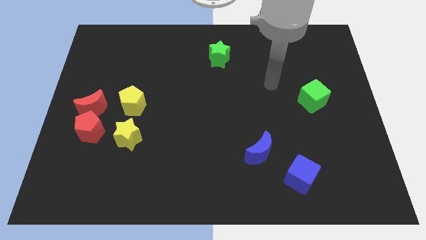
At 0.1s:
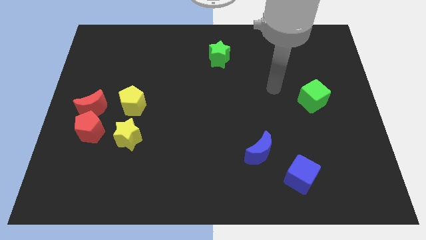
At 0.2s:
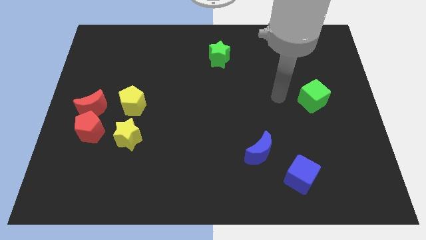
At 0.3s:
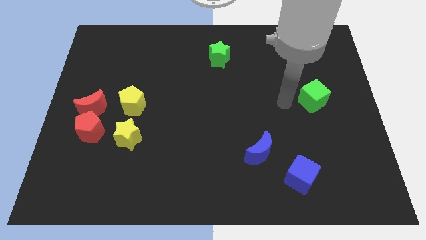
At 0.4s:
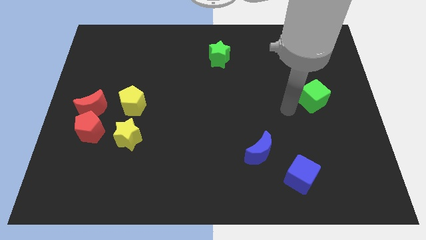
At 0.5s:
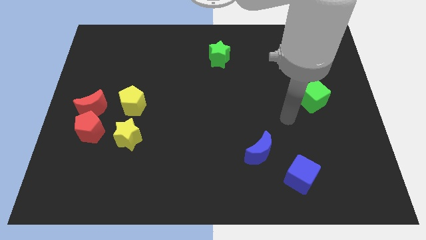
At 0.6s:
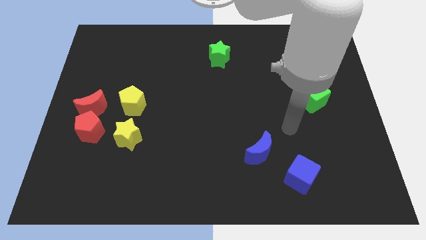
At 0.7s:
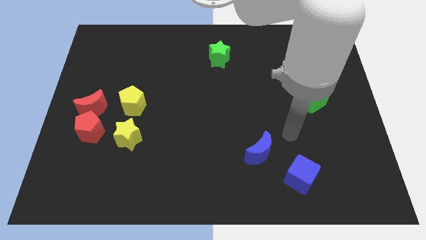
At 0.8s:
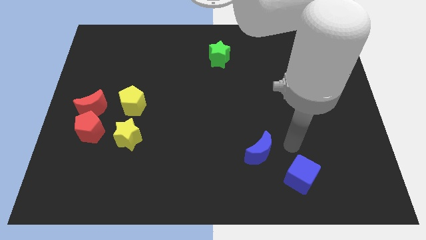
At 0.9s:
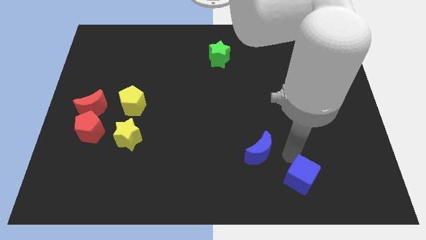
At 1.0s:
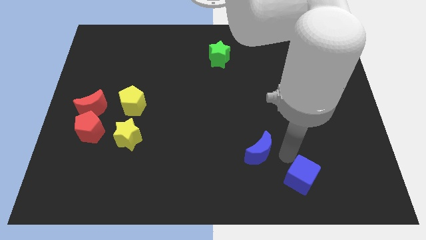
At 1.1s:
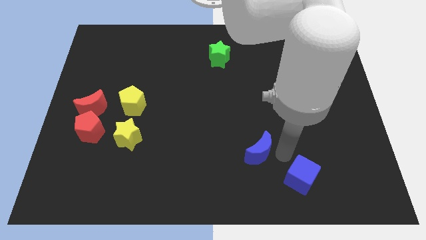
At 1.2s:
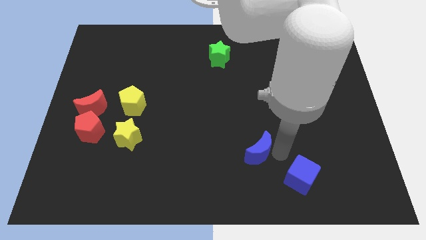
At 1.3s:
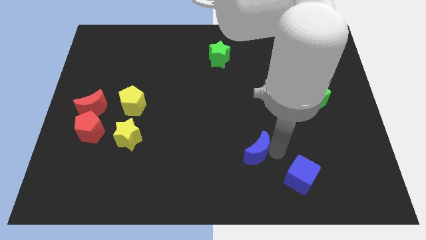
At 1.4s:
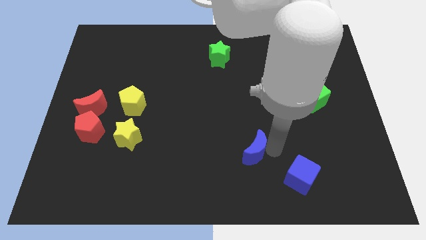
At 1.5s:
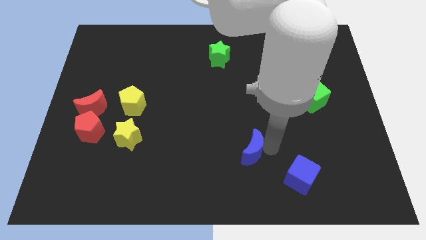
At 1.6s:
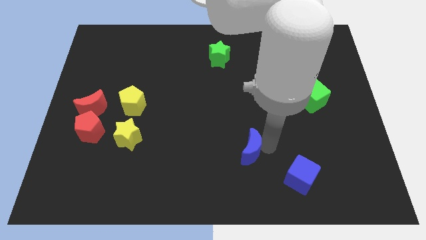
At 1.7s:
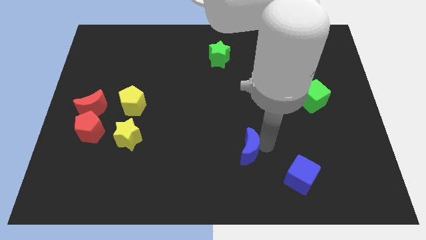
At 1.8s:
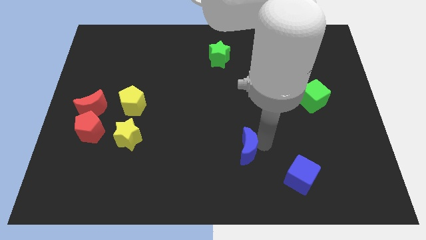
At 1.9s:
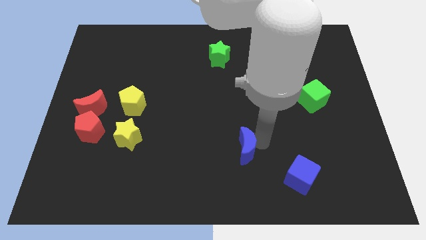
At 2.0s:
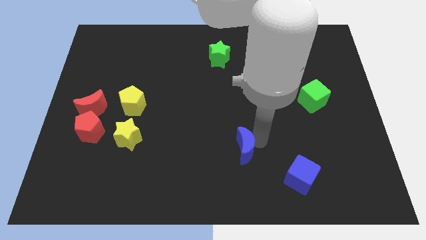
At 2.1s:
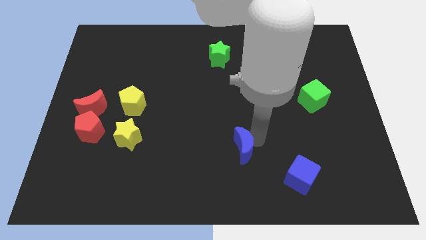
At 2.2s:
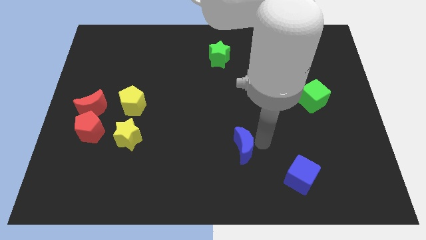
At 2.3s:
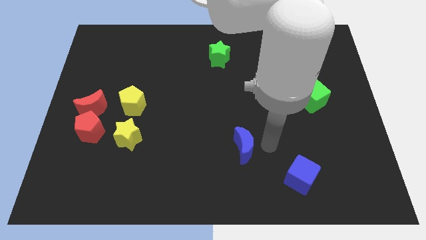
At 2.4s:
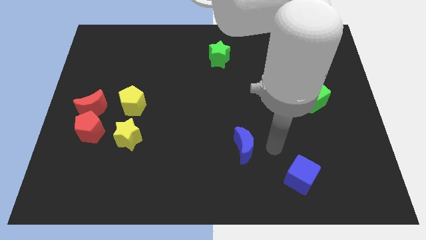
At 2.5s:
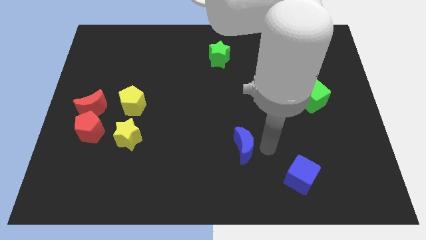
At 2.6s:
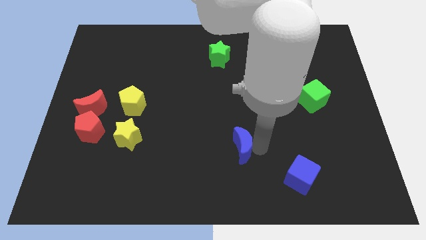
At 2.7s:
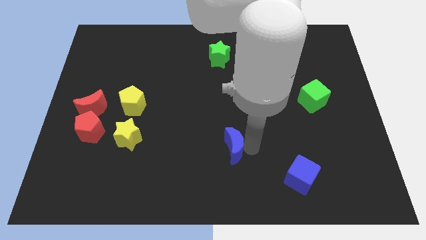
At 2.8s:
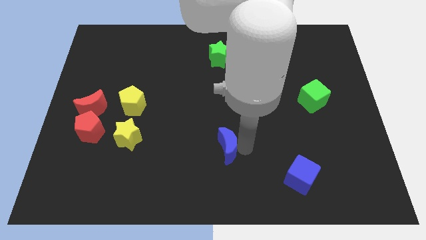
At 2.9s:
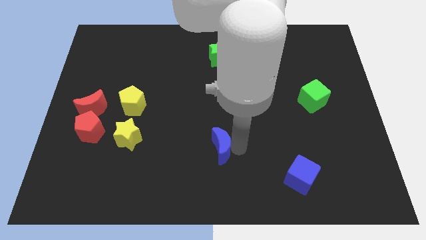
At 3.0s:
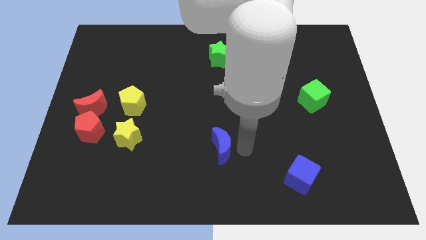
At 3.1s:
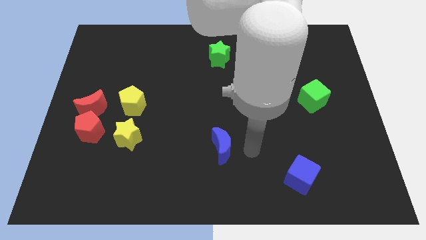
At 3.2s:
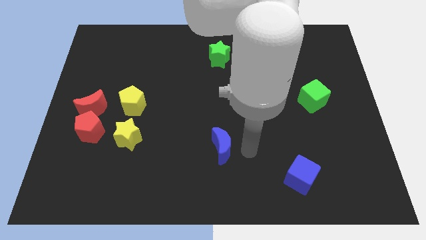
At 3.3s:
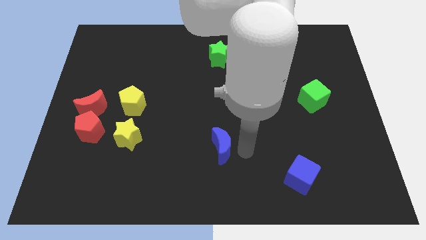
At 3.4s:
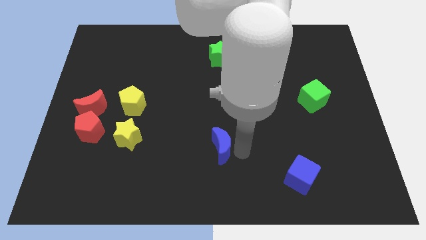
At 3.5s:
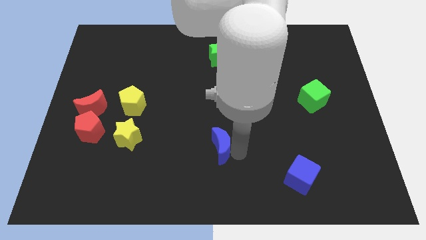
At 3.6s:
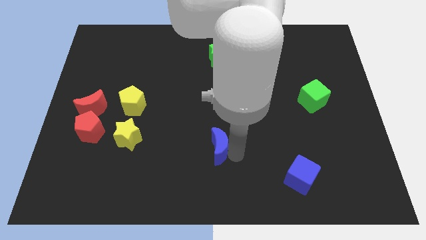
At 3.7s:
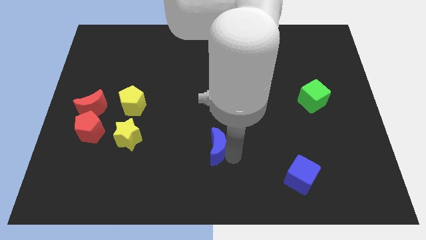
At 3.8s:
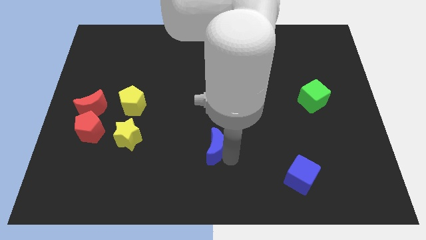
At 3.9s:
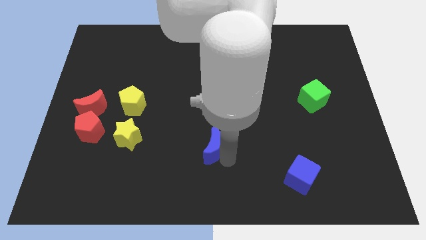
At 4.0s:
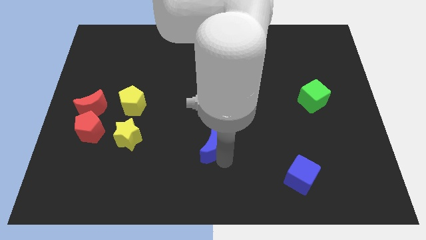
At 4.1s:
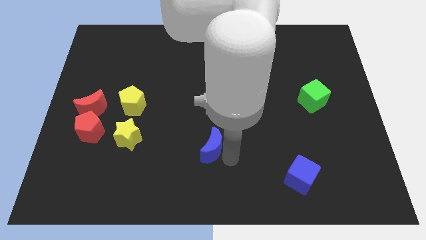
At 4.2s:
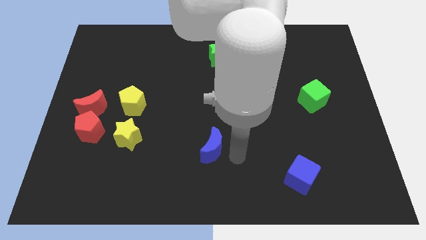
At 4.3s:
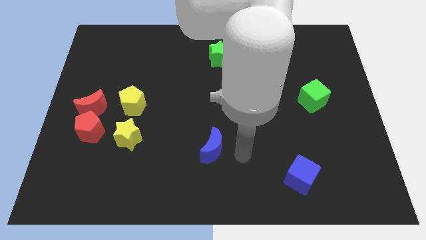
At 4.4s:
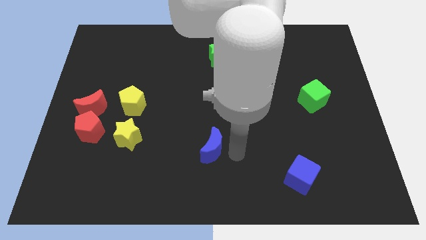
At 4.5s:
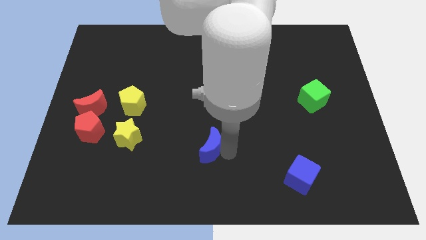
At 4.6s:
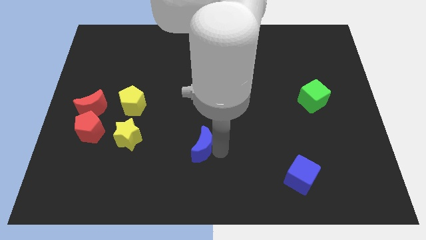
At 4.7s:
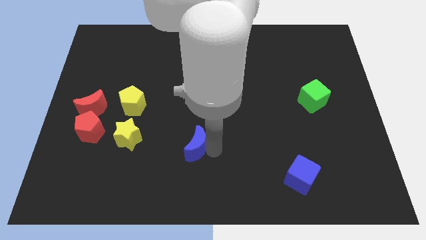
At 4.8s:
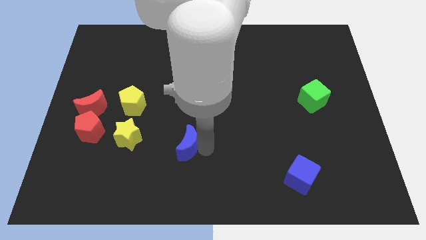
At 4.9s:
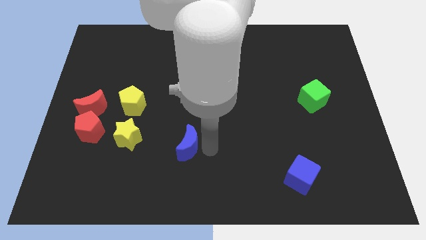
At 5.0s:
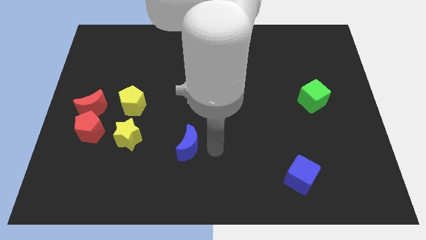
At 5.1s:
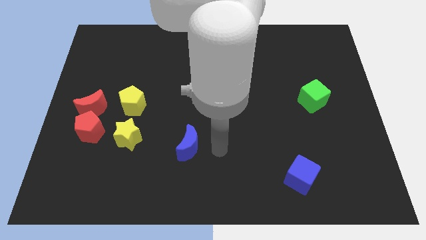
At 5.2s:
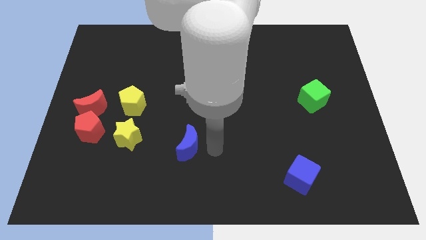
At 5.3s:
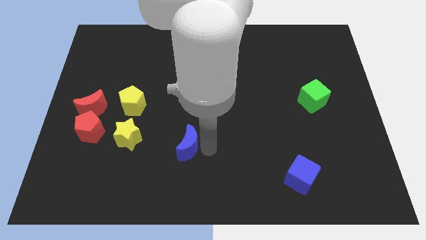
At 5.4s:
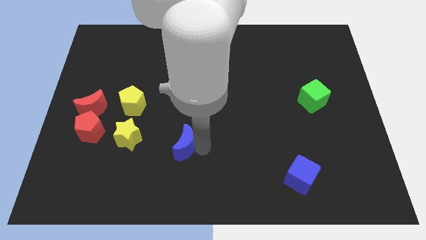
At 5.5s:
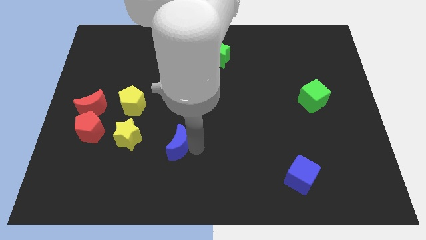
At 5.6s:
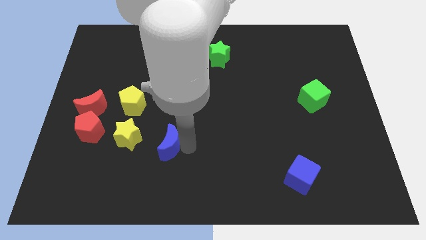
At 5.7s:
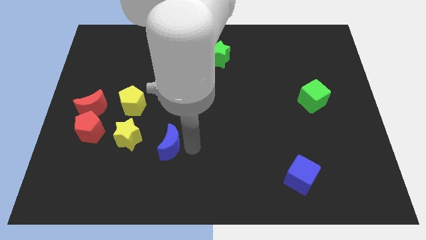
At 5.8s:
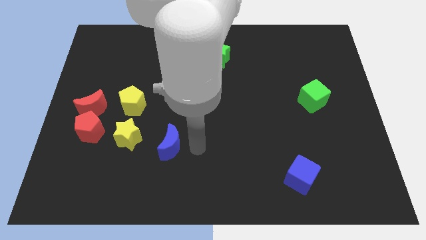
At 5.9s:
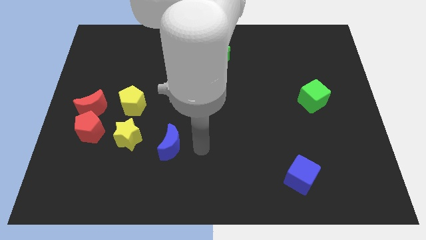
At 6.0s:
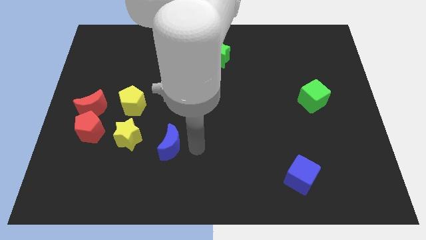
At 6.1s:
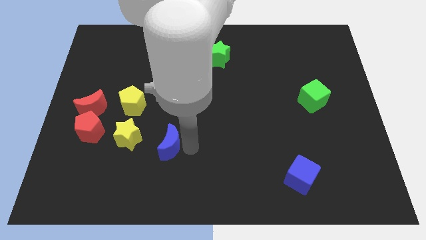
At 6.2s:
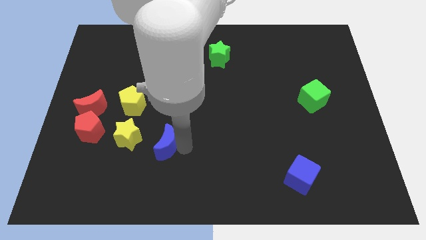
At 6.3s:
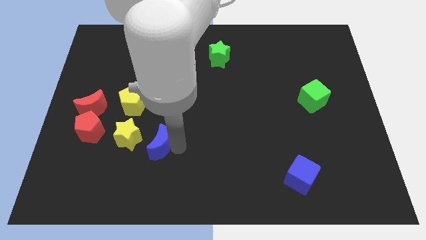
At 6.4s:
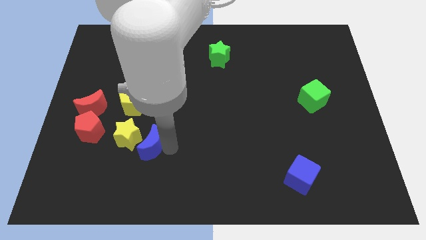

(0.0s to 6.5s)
slide the blue moon towards the yellow star
